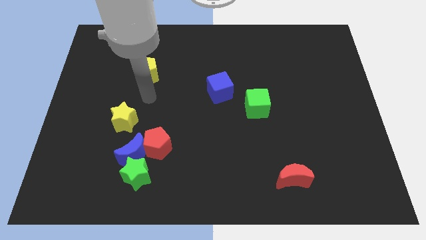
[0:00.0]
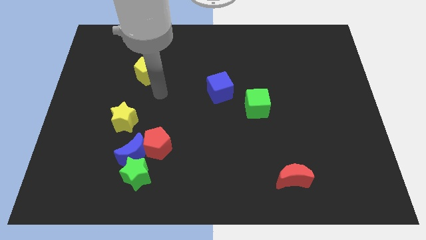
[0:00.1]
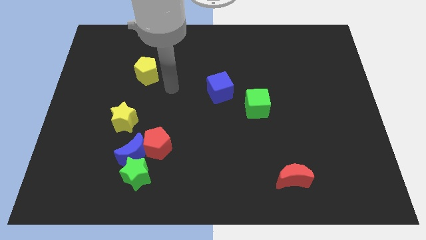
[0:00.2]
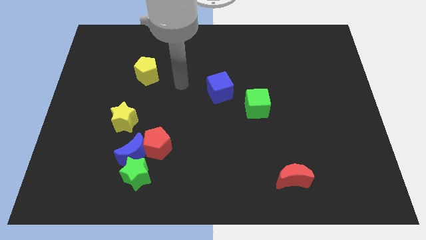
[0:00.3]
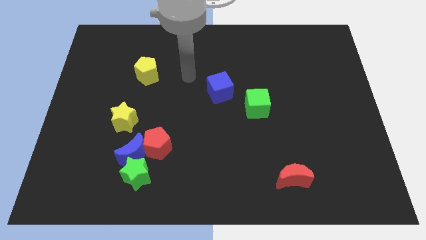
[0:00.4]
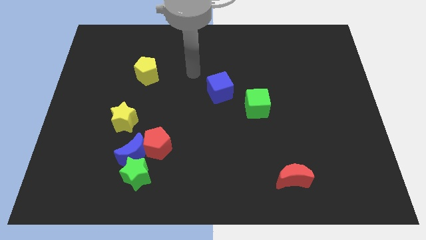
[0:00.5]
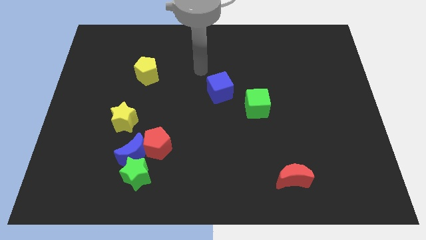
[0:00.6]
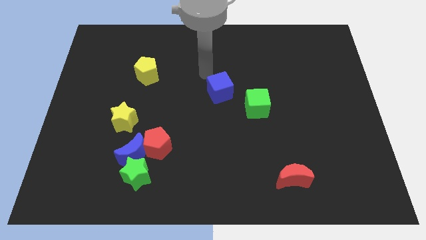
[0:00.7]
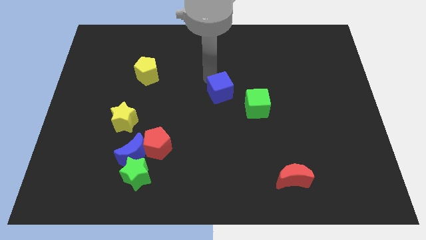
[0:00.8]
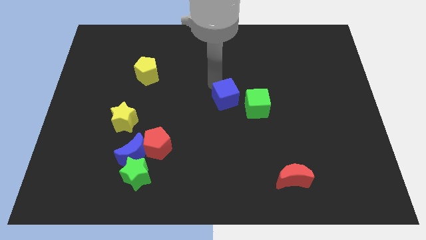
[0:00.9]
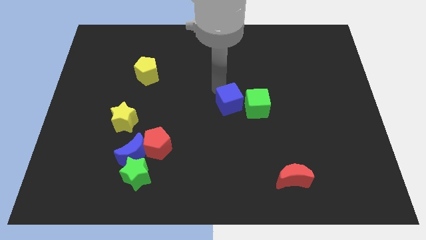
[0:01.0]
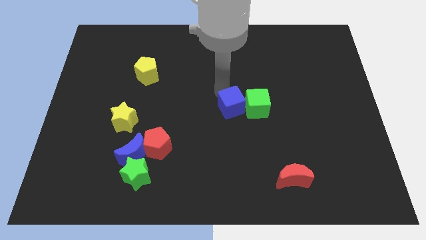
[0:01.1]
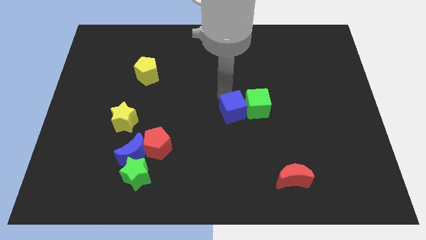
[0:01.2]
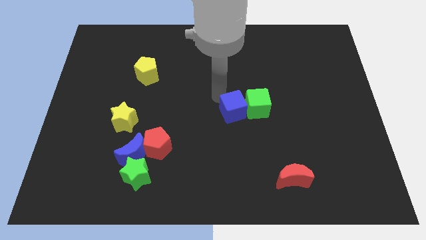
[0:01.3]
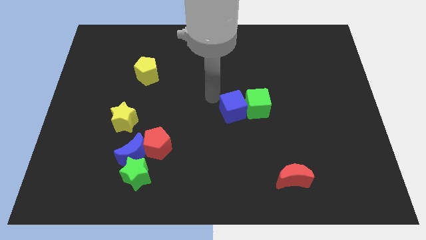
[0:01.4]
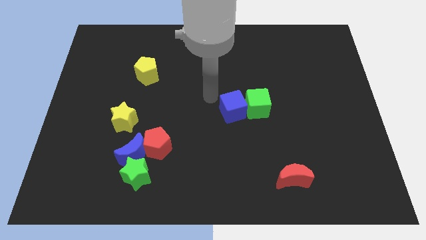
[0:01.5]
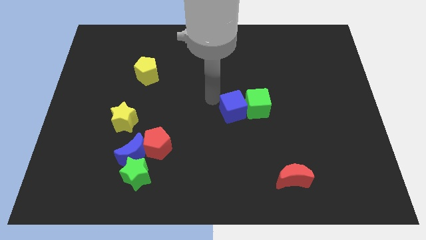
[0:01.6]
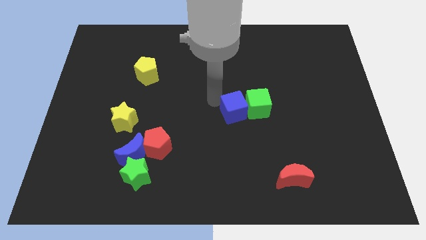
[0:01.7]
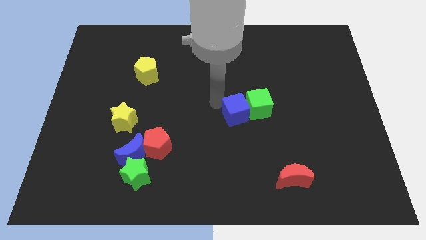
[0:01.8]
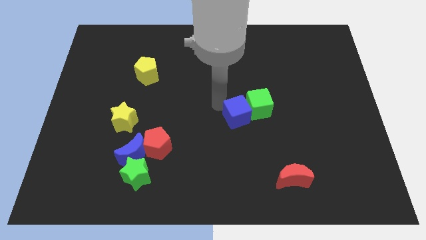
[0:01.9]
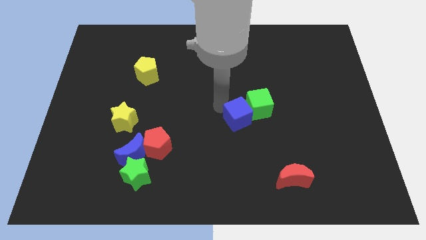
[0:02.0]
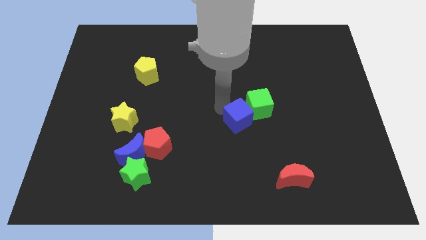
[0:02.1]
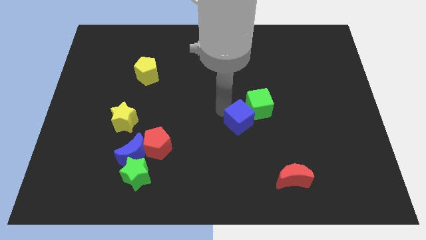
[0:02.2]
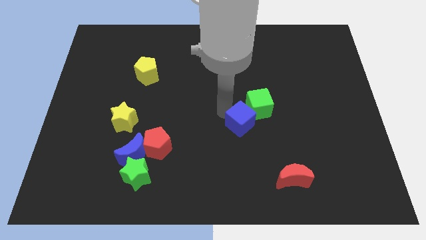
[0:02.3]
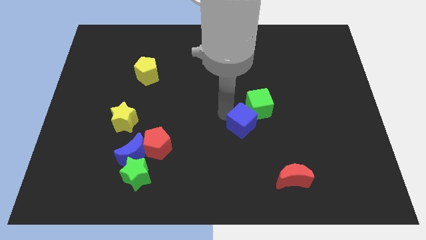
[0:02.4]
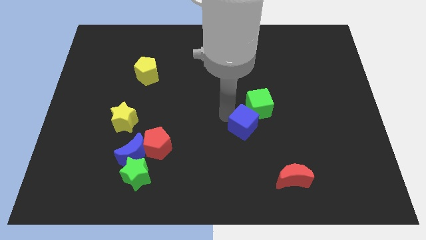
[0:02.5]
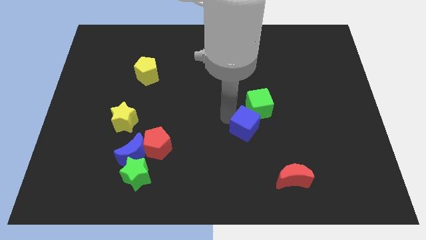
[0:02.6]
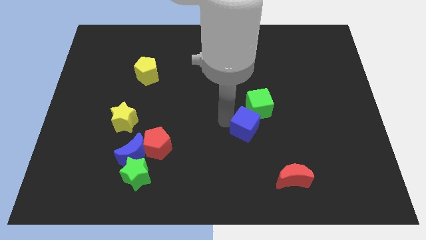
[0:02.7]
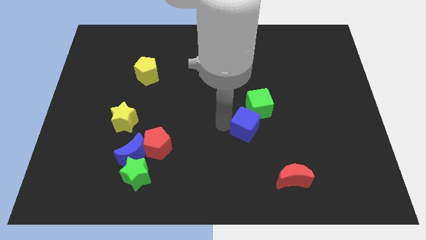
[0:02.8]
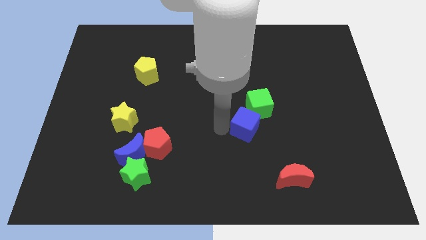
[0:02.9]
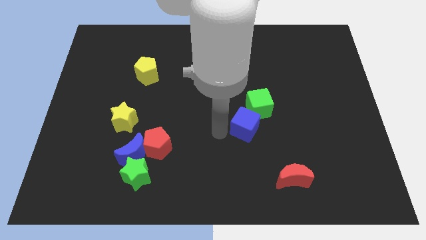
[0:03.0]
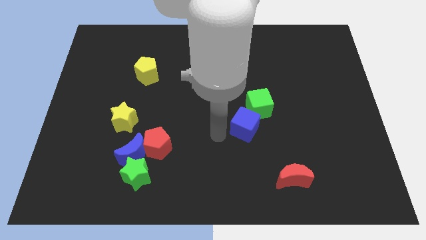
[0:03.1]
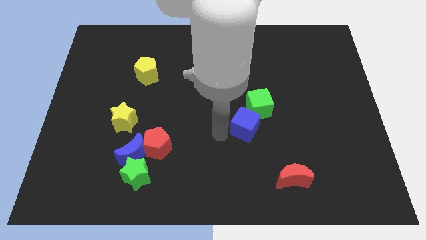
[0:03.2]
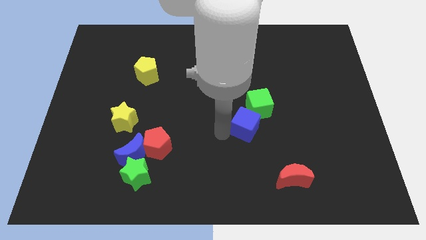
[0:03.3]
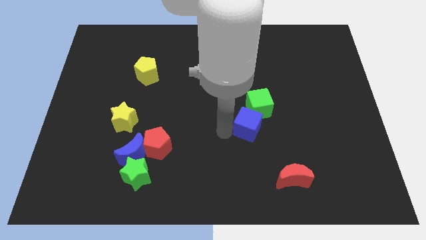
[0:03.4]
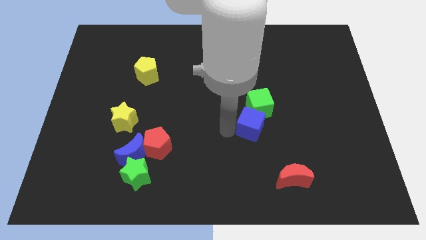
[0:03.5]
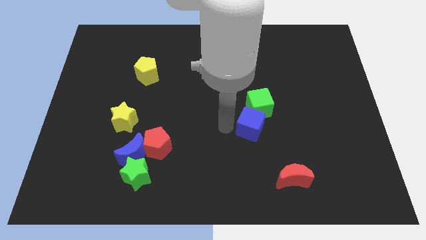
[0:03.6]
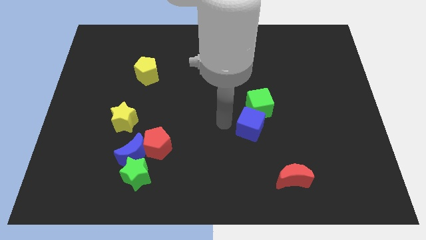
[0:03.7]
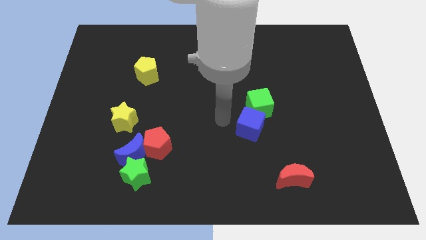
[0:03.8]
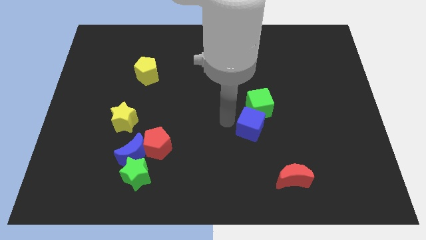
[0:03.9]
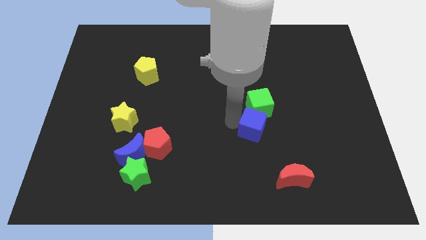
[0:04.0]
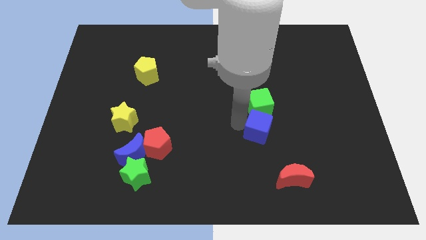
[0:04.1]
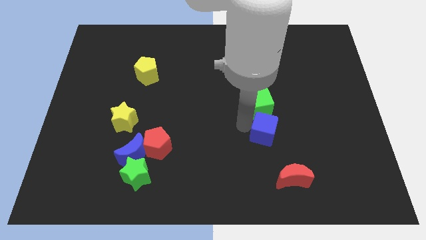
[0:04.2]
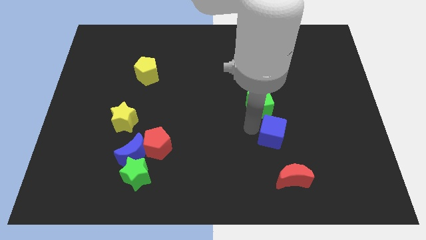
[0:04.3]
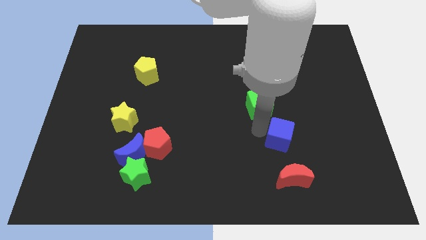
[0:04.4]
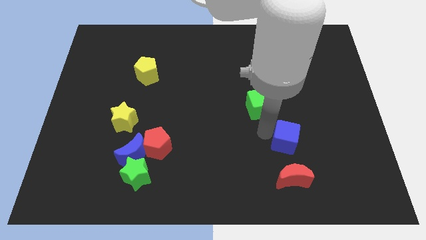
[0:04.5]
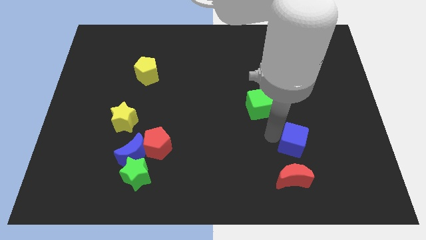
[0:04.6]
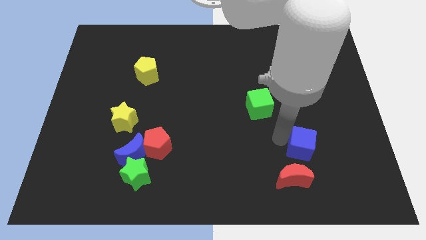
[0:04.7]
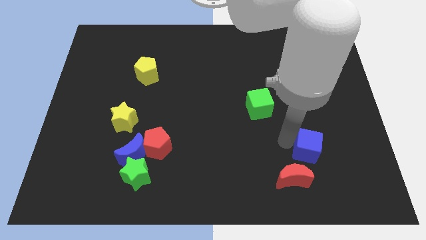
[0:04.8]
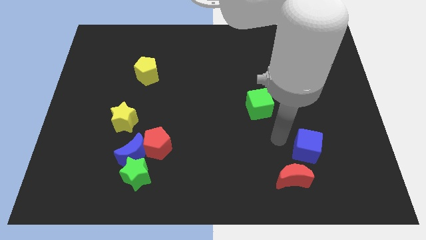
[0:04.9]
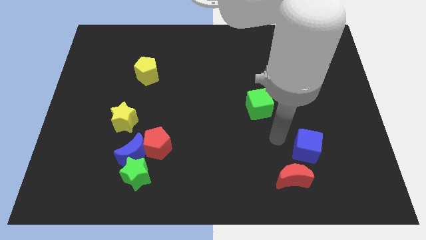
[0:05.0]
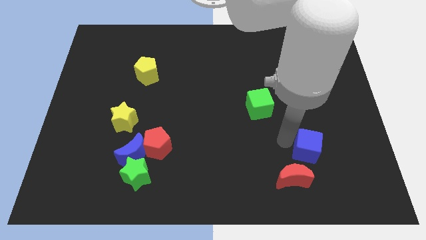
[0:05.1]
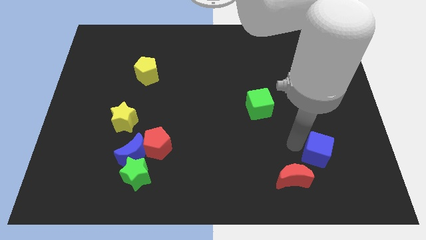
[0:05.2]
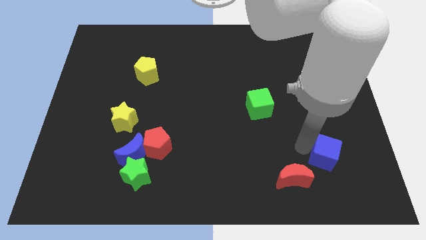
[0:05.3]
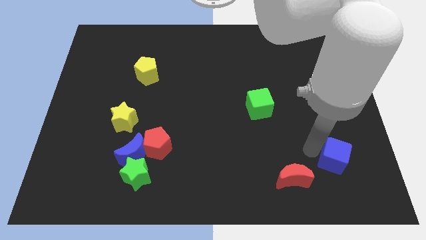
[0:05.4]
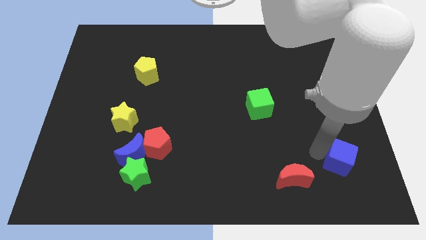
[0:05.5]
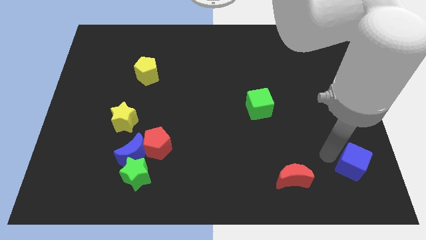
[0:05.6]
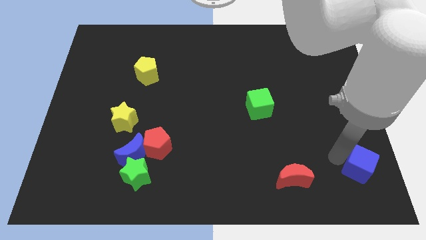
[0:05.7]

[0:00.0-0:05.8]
slide the blue cube to the lower right corner
